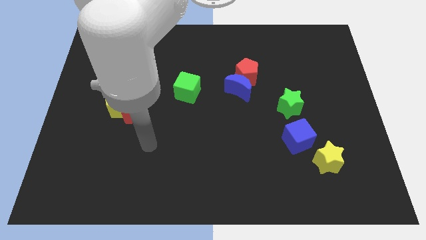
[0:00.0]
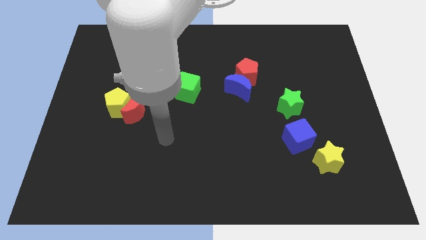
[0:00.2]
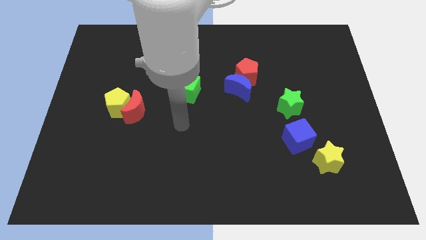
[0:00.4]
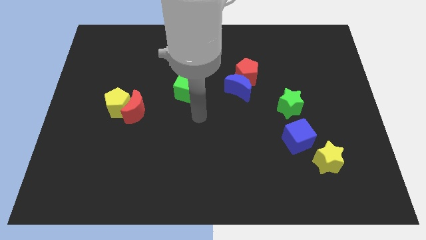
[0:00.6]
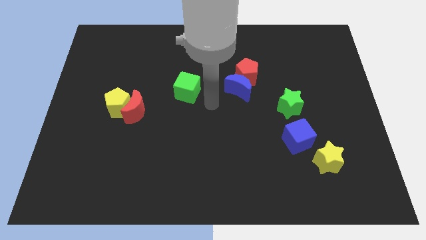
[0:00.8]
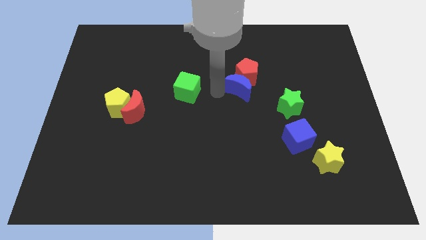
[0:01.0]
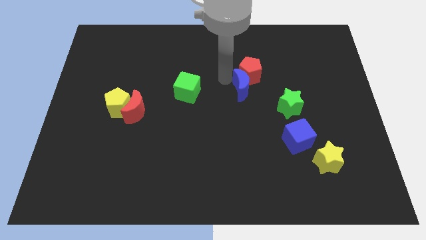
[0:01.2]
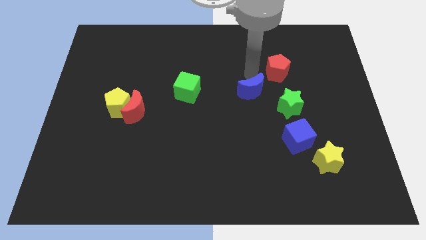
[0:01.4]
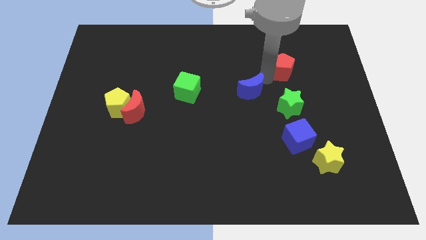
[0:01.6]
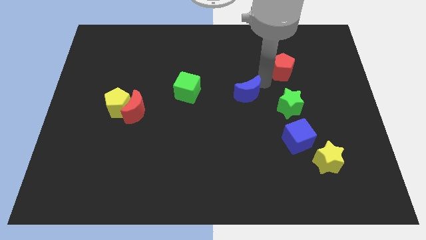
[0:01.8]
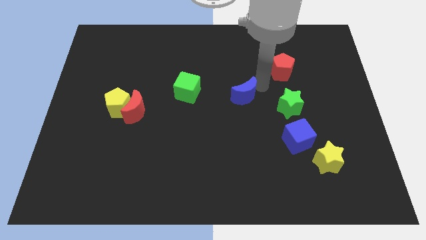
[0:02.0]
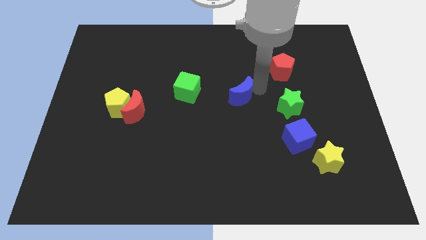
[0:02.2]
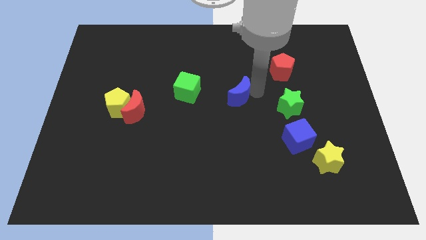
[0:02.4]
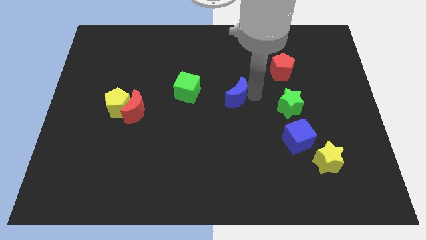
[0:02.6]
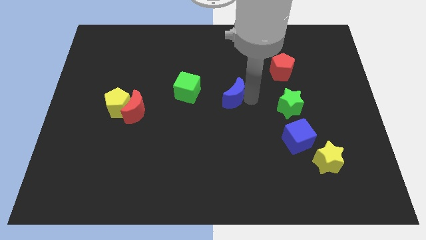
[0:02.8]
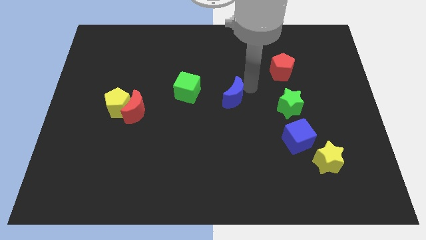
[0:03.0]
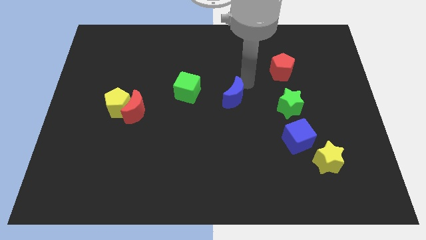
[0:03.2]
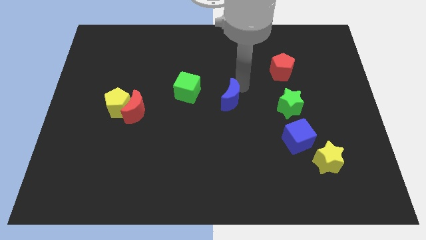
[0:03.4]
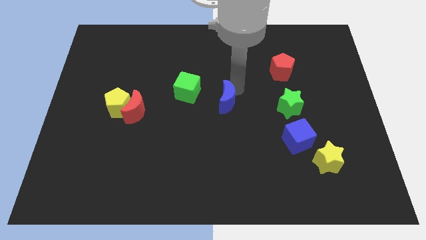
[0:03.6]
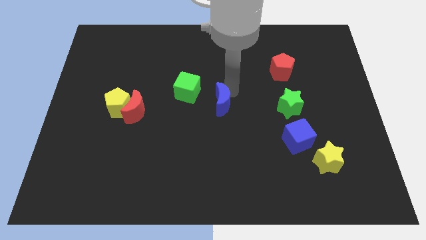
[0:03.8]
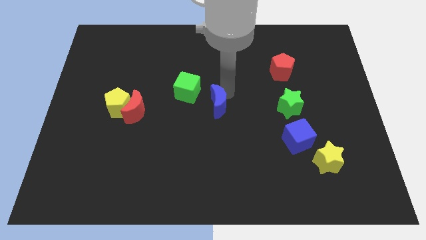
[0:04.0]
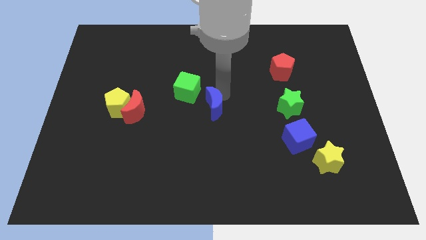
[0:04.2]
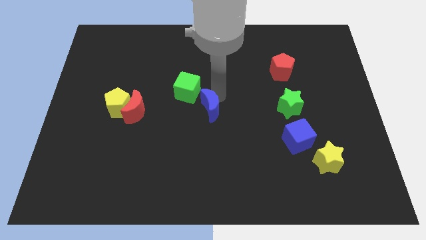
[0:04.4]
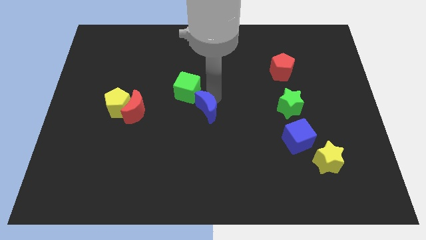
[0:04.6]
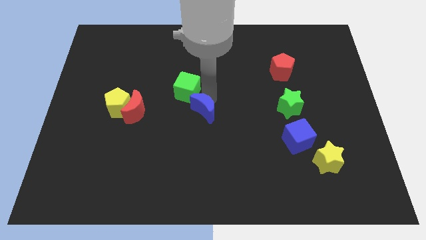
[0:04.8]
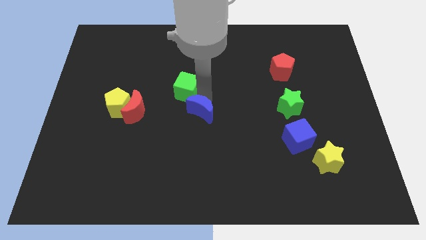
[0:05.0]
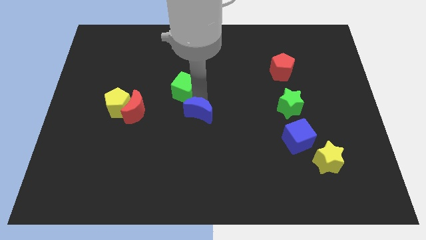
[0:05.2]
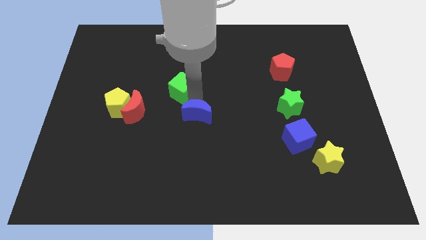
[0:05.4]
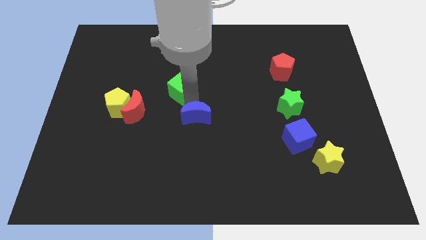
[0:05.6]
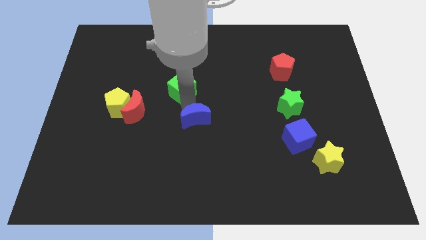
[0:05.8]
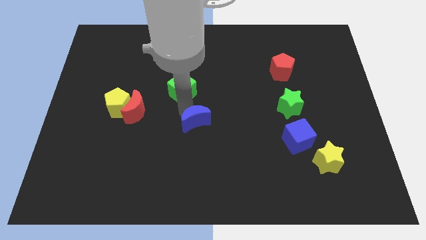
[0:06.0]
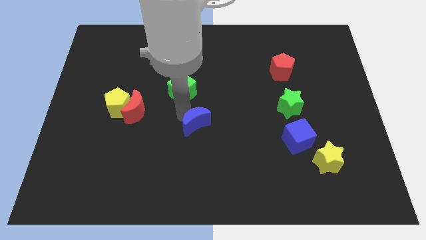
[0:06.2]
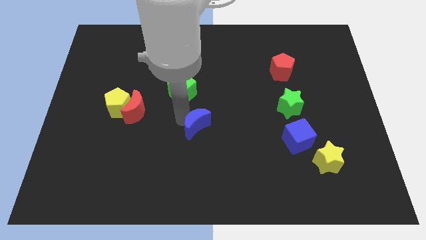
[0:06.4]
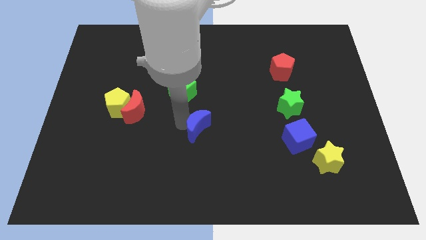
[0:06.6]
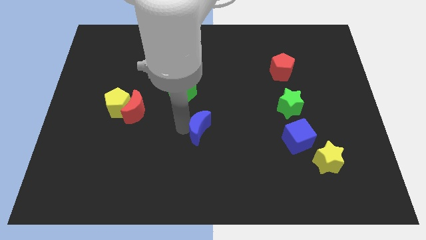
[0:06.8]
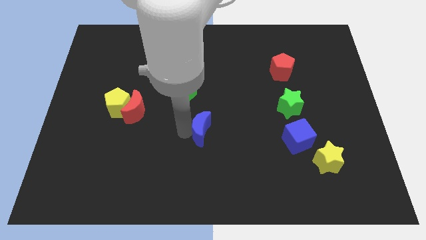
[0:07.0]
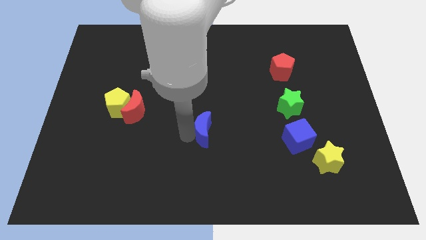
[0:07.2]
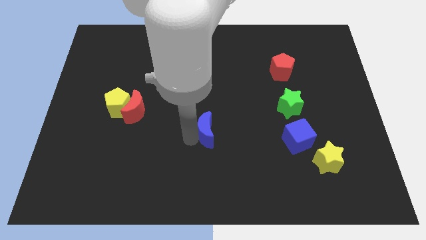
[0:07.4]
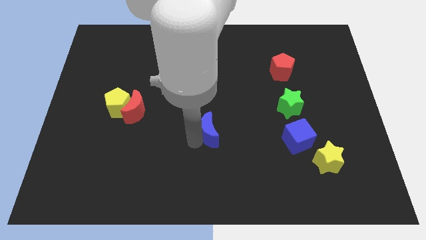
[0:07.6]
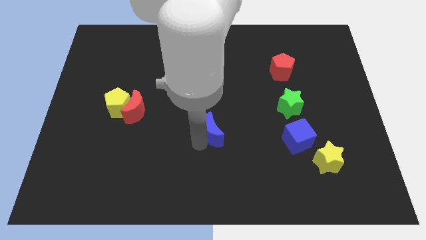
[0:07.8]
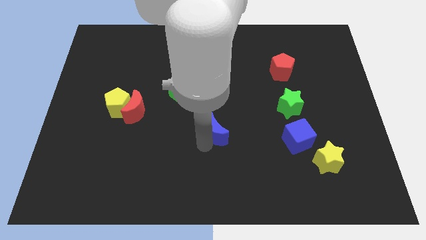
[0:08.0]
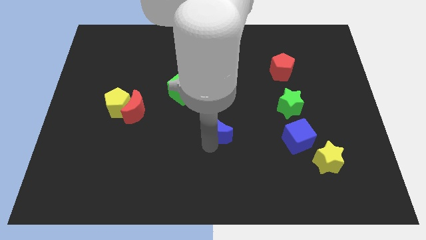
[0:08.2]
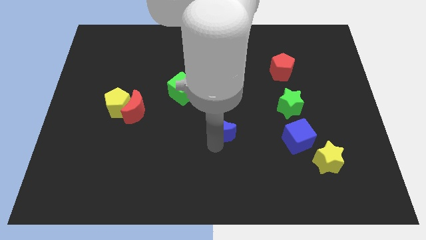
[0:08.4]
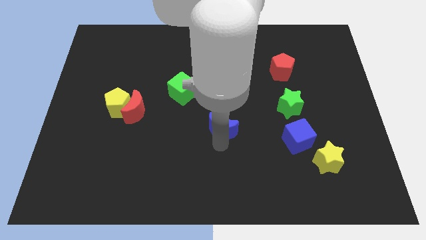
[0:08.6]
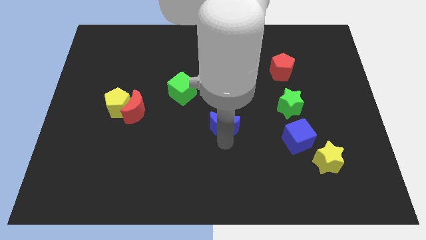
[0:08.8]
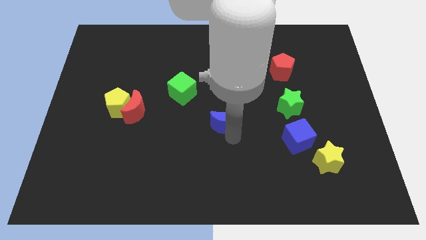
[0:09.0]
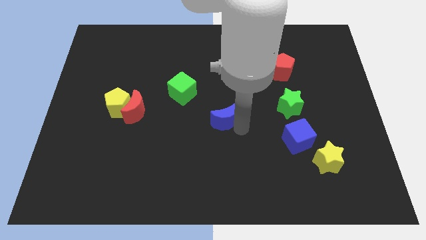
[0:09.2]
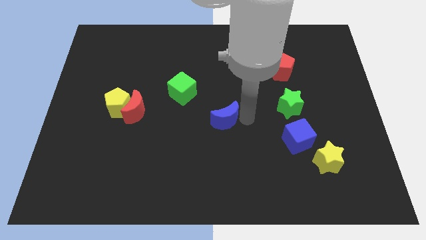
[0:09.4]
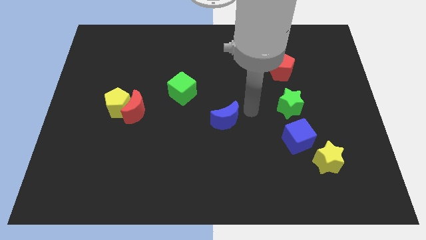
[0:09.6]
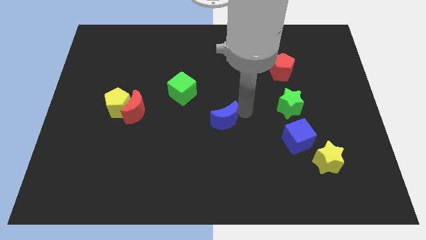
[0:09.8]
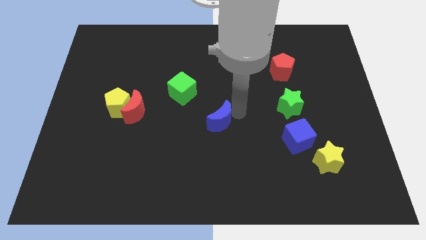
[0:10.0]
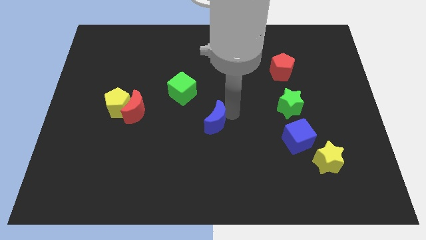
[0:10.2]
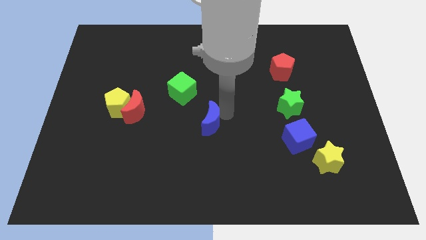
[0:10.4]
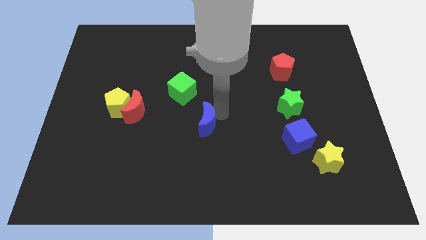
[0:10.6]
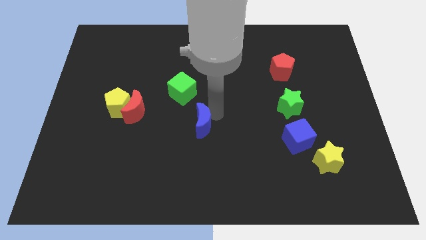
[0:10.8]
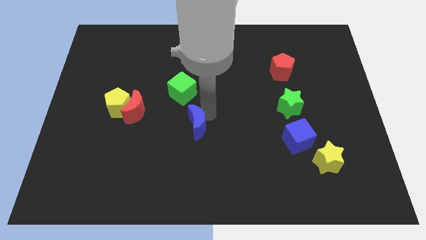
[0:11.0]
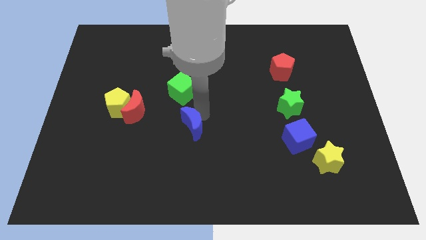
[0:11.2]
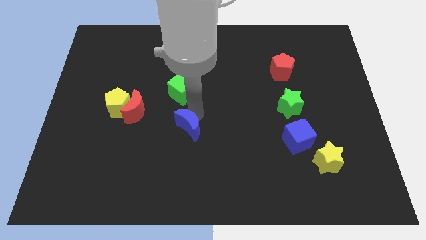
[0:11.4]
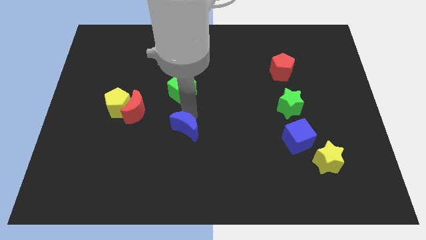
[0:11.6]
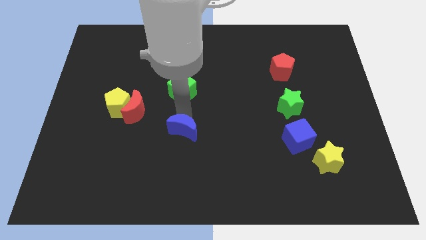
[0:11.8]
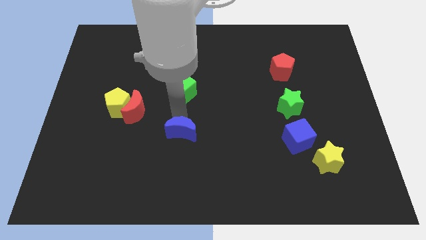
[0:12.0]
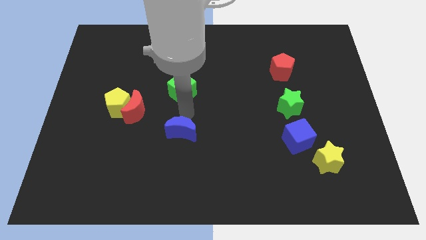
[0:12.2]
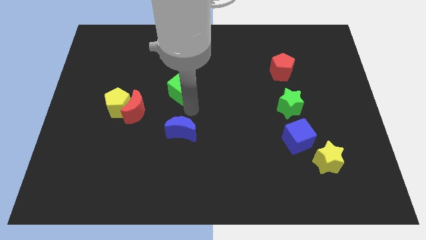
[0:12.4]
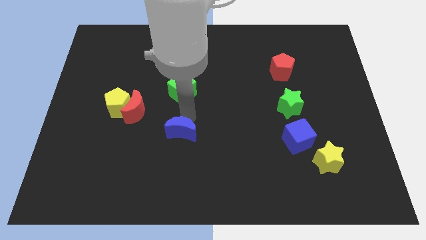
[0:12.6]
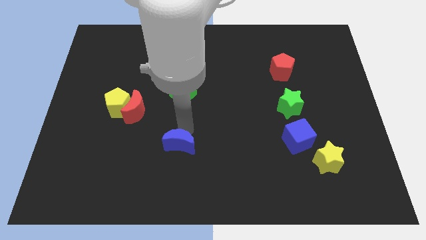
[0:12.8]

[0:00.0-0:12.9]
push the blue moon down and left

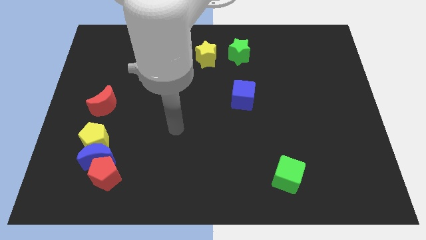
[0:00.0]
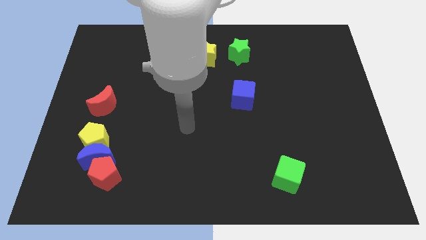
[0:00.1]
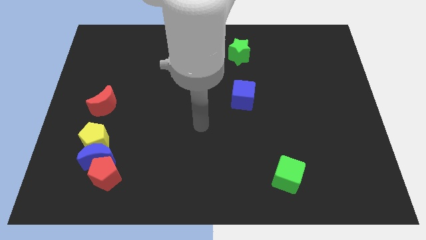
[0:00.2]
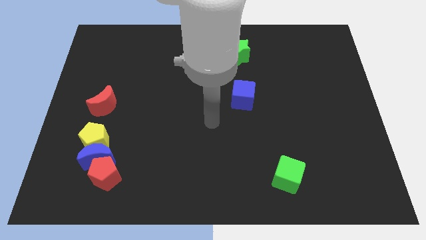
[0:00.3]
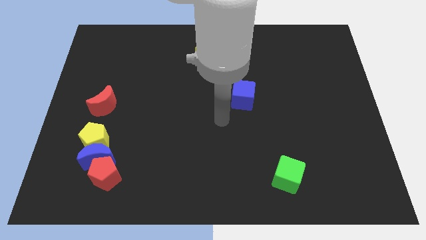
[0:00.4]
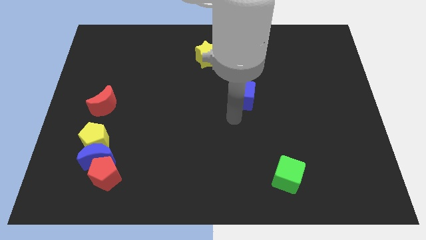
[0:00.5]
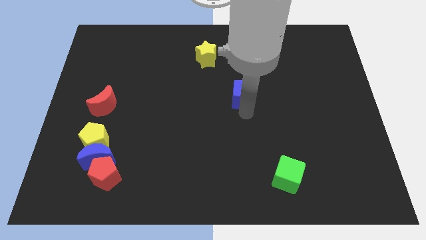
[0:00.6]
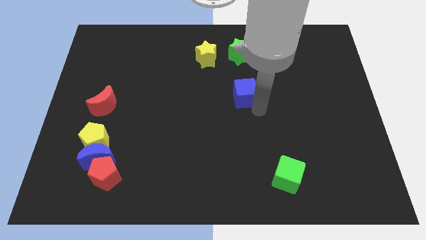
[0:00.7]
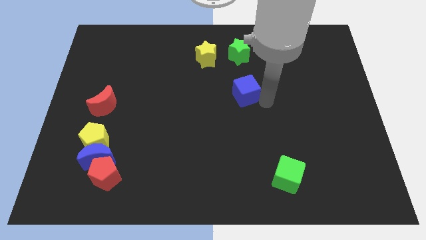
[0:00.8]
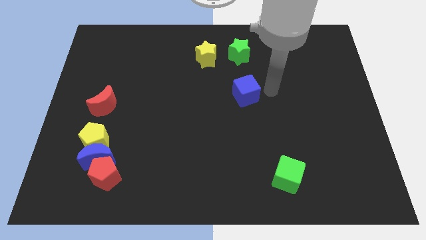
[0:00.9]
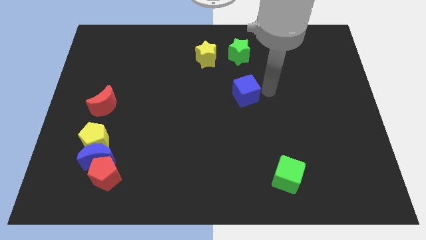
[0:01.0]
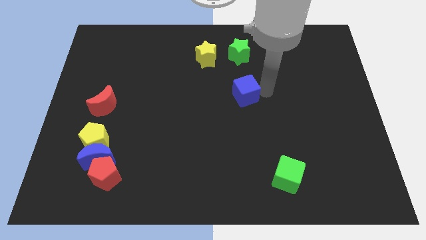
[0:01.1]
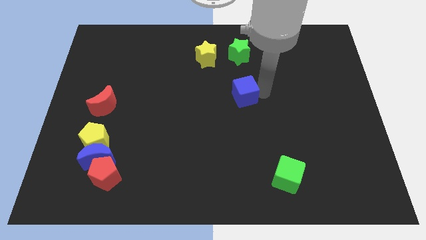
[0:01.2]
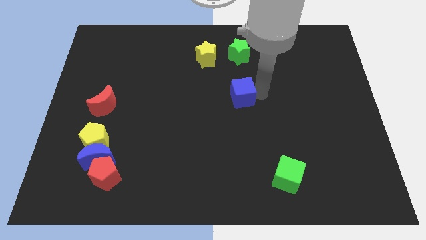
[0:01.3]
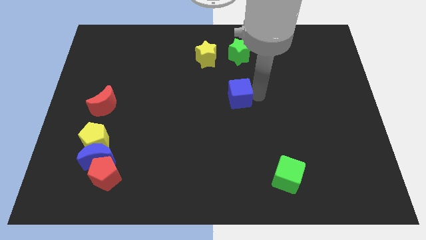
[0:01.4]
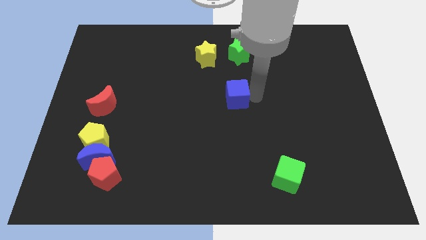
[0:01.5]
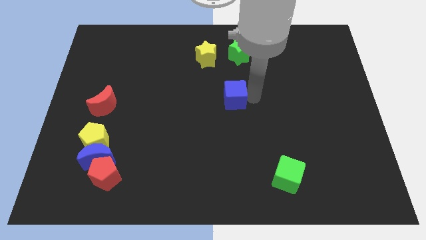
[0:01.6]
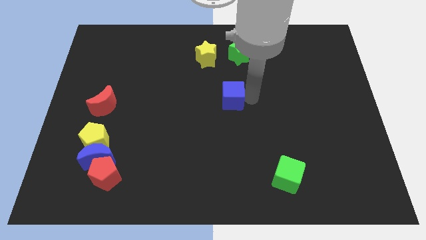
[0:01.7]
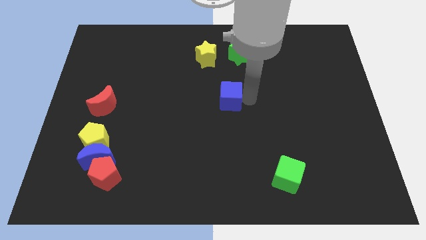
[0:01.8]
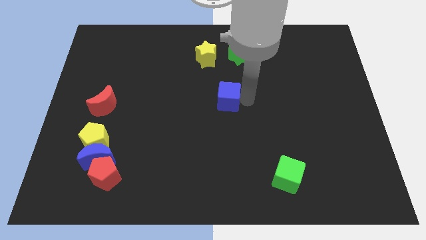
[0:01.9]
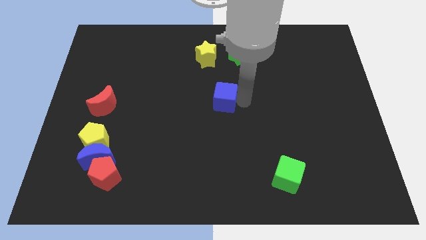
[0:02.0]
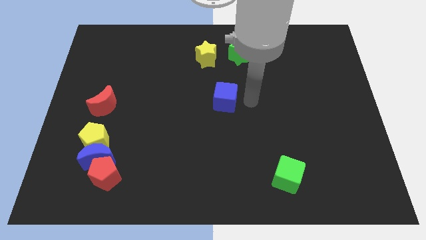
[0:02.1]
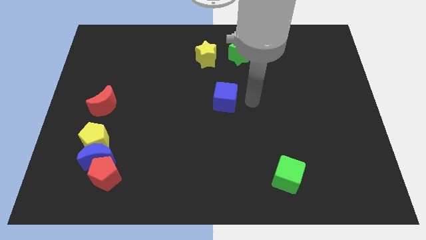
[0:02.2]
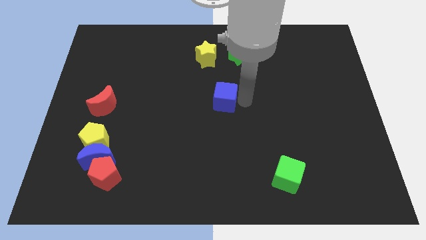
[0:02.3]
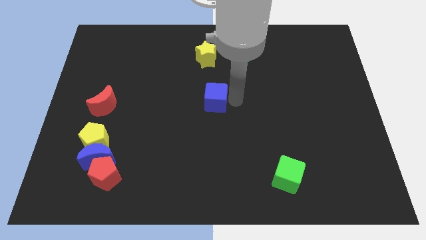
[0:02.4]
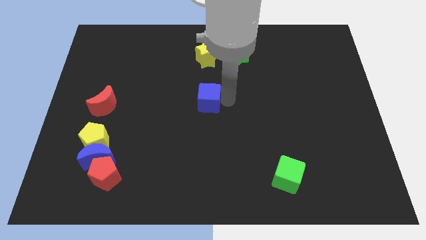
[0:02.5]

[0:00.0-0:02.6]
push the blue cube somewhat left
